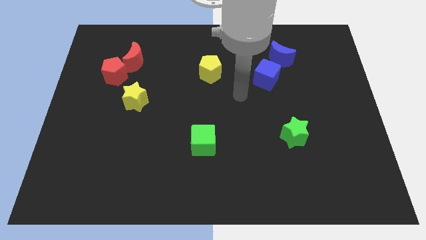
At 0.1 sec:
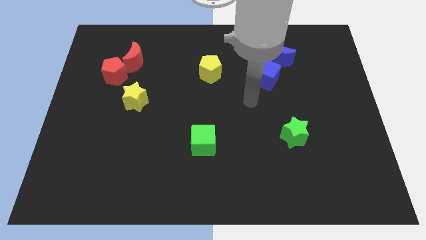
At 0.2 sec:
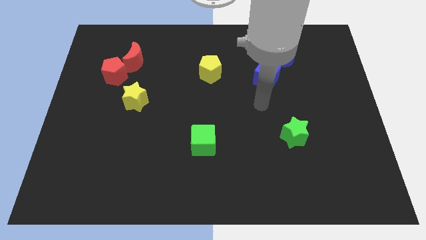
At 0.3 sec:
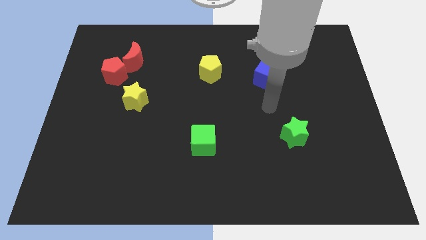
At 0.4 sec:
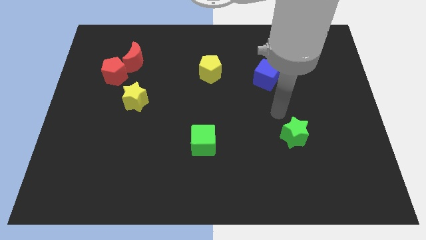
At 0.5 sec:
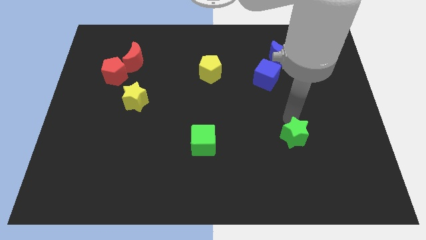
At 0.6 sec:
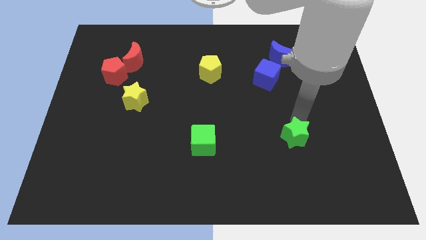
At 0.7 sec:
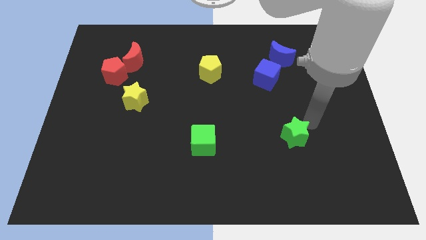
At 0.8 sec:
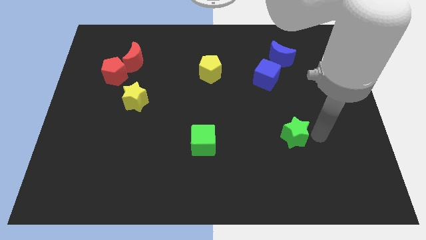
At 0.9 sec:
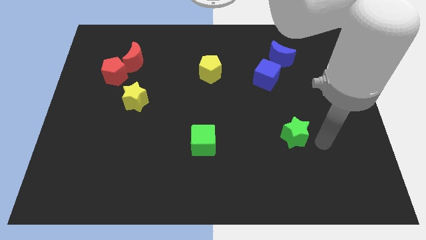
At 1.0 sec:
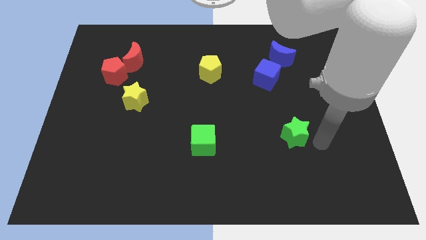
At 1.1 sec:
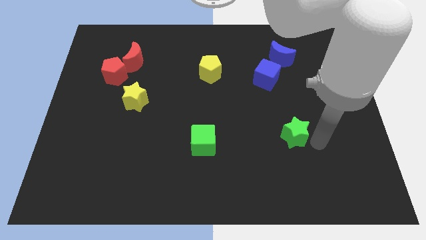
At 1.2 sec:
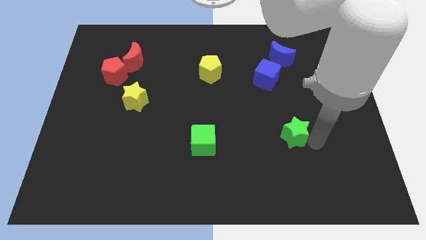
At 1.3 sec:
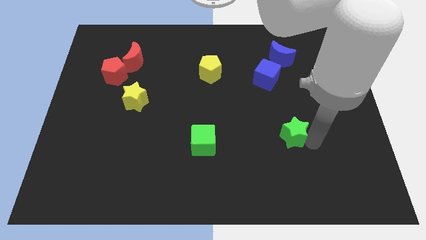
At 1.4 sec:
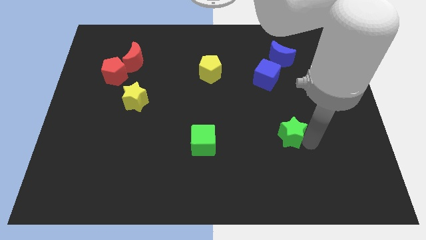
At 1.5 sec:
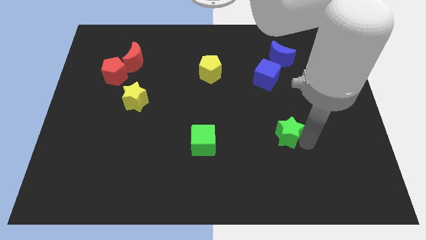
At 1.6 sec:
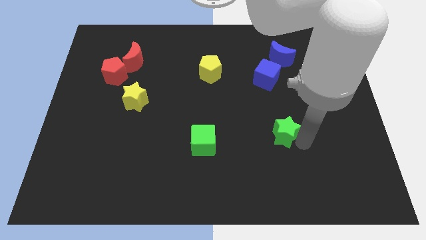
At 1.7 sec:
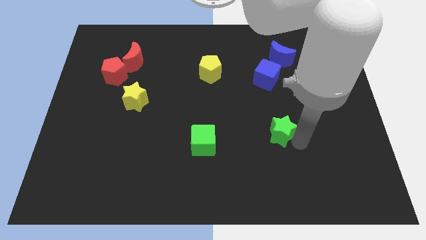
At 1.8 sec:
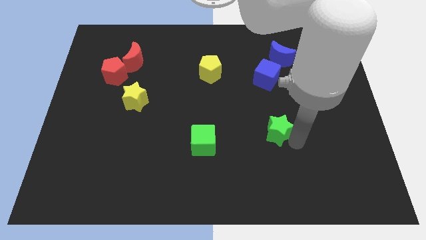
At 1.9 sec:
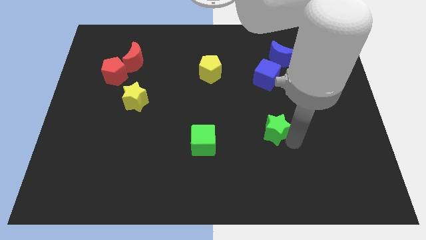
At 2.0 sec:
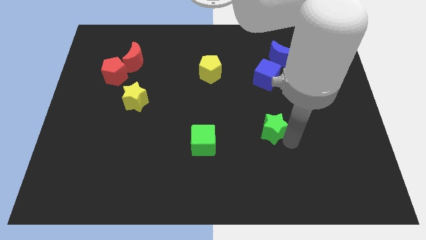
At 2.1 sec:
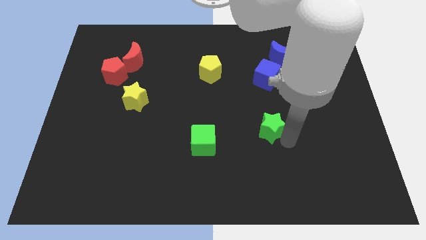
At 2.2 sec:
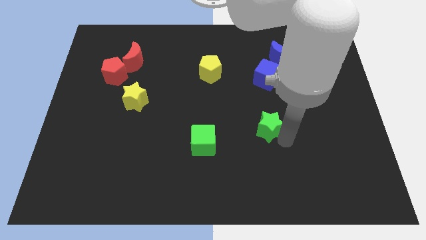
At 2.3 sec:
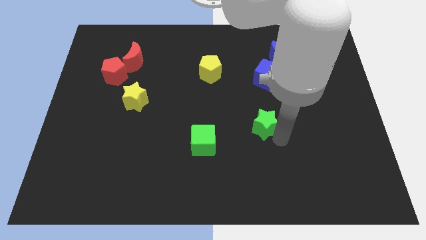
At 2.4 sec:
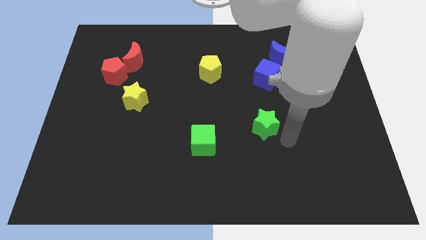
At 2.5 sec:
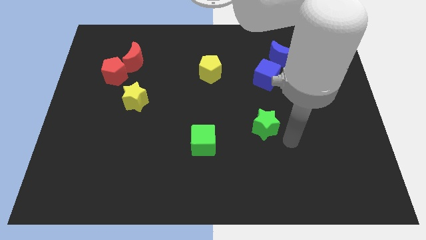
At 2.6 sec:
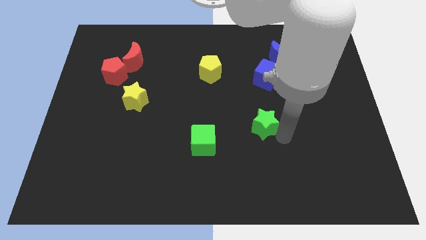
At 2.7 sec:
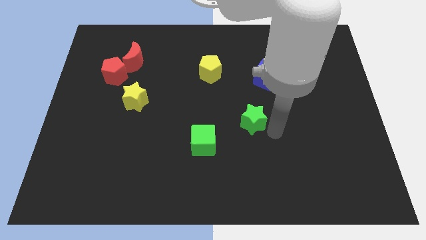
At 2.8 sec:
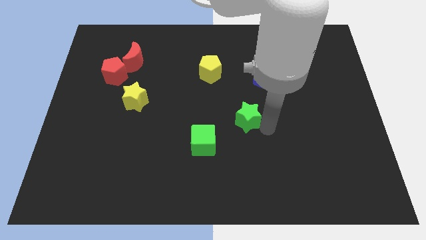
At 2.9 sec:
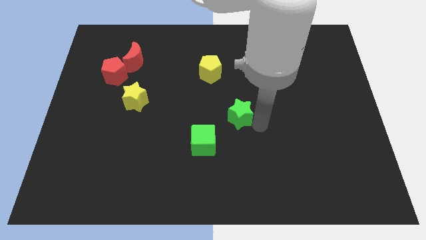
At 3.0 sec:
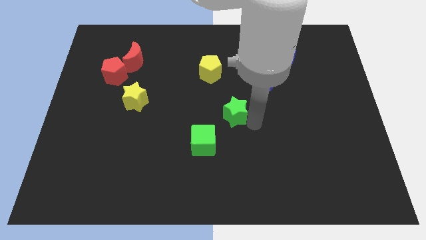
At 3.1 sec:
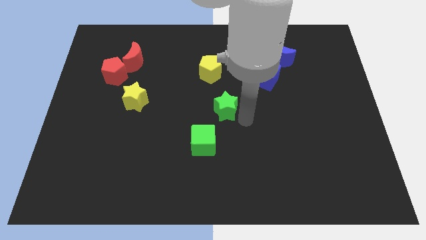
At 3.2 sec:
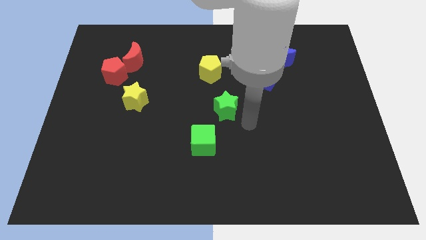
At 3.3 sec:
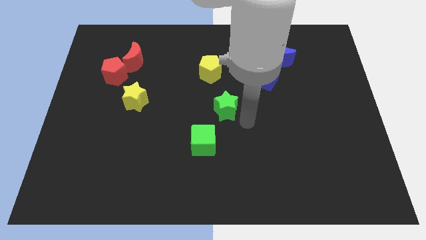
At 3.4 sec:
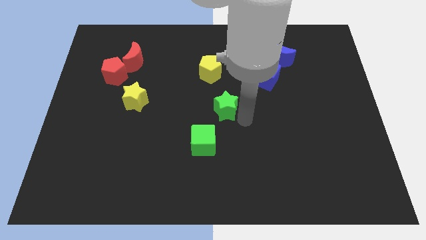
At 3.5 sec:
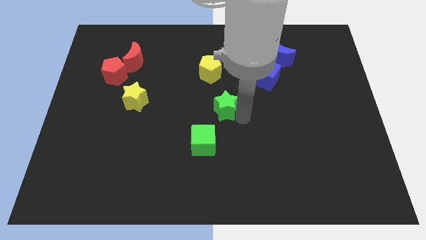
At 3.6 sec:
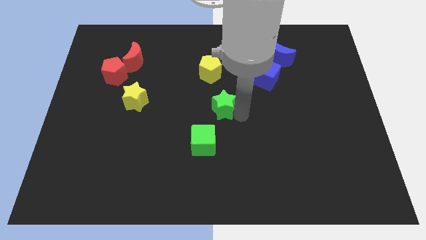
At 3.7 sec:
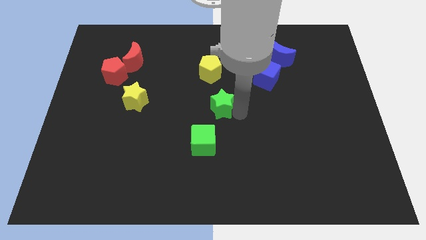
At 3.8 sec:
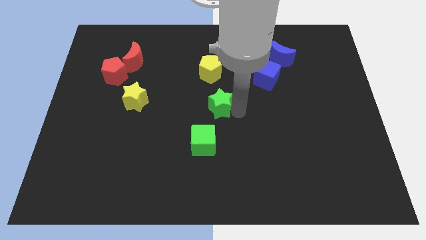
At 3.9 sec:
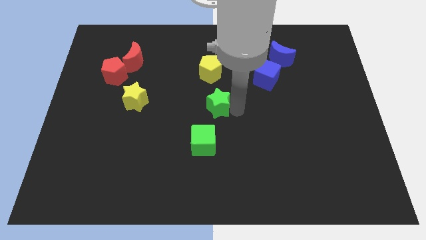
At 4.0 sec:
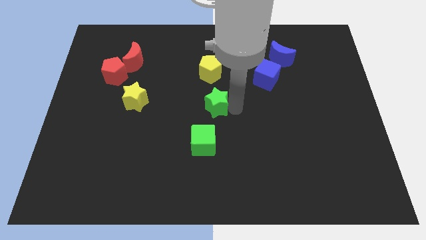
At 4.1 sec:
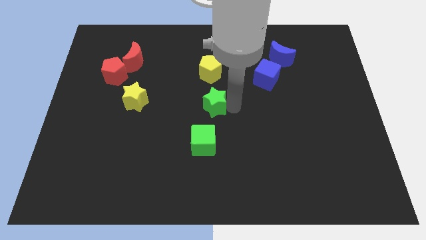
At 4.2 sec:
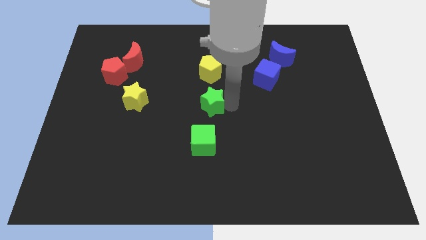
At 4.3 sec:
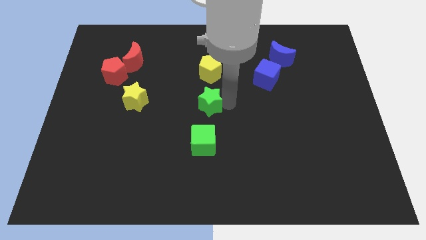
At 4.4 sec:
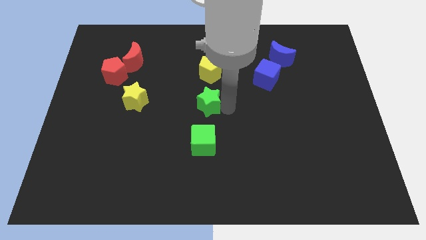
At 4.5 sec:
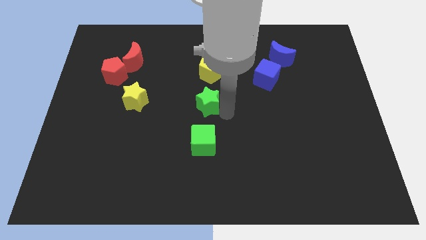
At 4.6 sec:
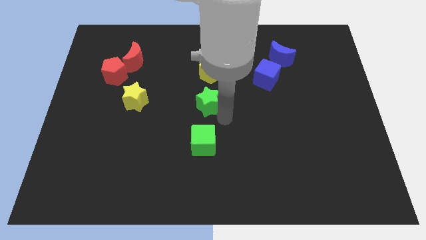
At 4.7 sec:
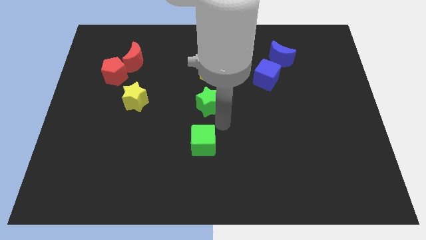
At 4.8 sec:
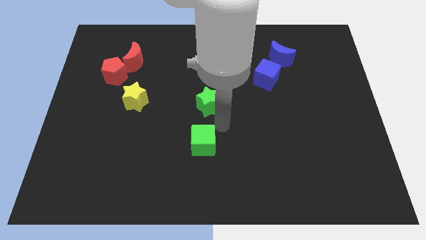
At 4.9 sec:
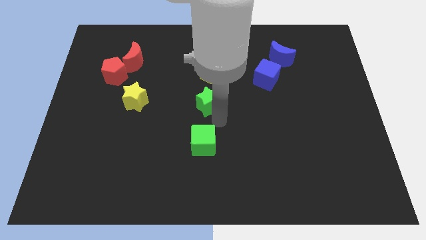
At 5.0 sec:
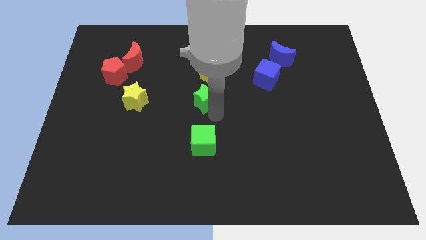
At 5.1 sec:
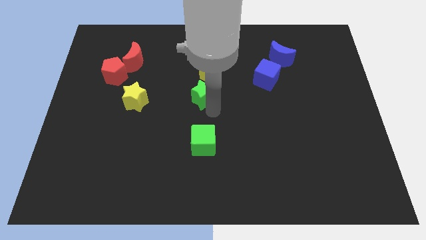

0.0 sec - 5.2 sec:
move the green star upwards and left

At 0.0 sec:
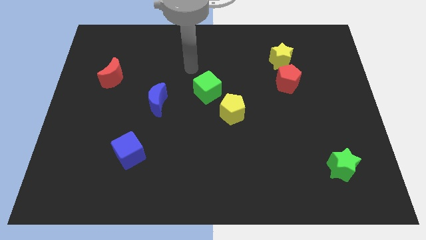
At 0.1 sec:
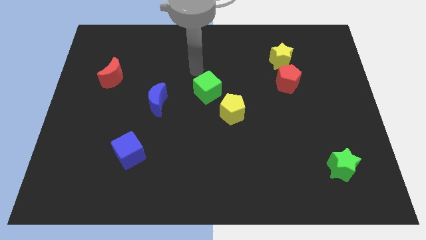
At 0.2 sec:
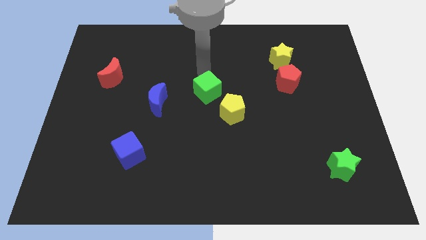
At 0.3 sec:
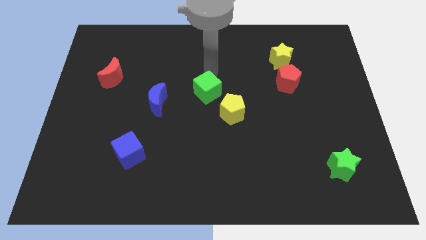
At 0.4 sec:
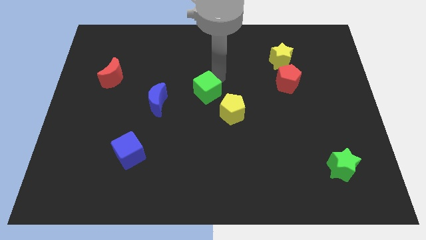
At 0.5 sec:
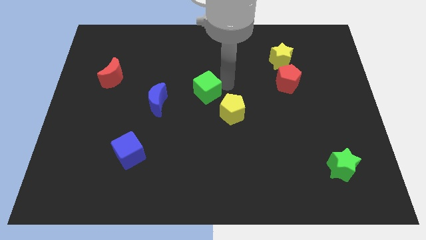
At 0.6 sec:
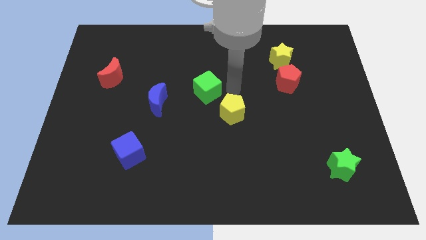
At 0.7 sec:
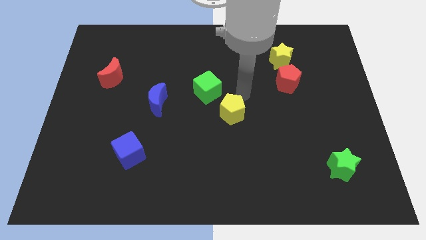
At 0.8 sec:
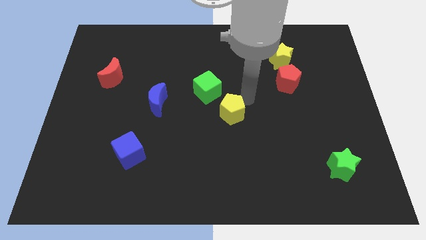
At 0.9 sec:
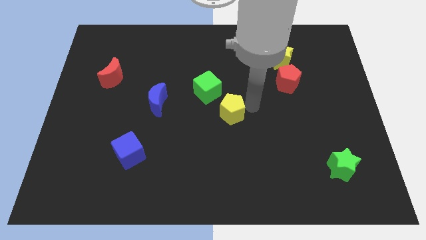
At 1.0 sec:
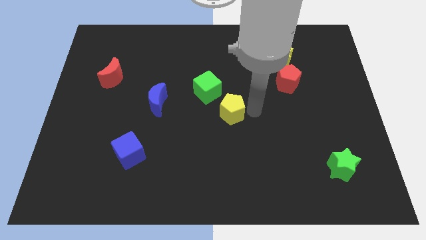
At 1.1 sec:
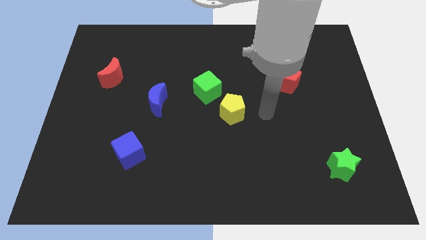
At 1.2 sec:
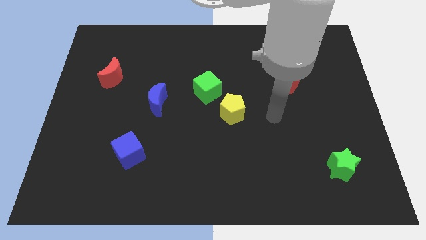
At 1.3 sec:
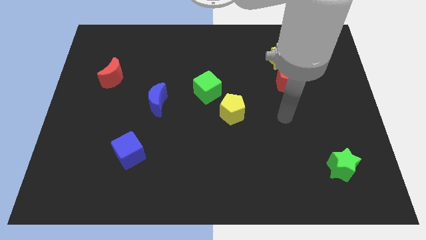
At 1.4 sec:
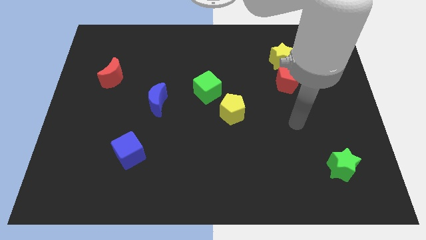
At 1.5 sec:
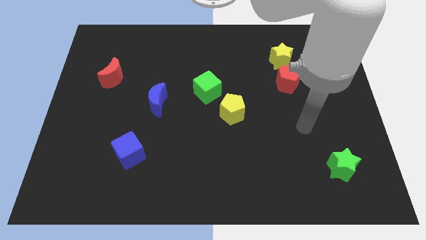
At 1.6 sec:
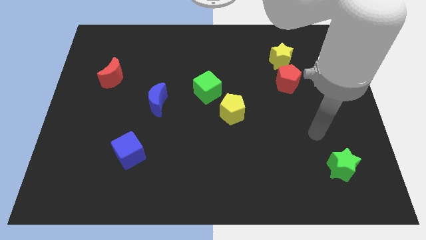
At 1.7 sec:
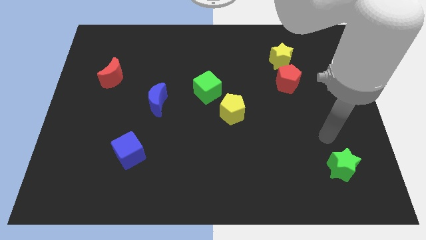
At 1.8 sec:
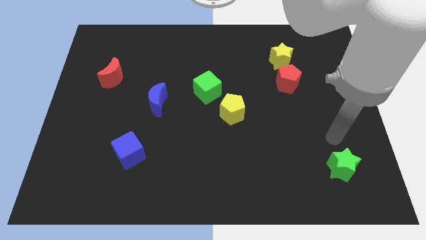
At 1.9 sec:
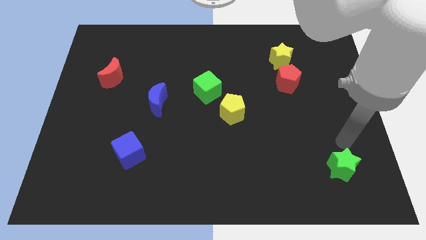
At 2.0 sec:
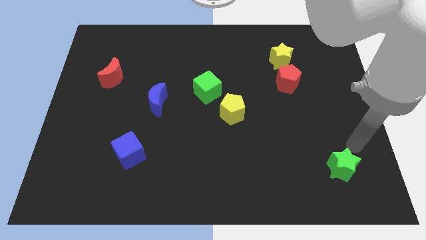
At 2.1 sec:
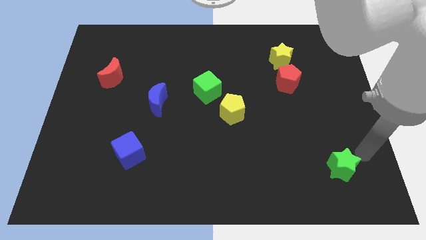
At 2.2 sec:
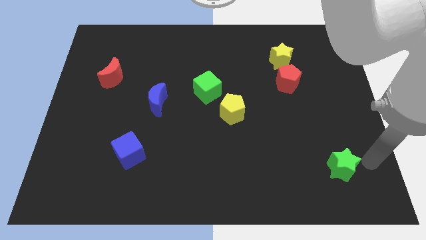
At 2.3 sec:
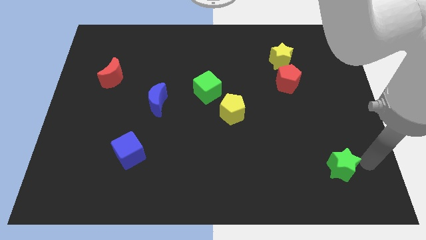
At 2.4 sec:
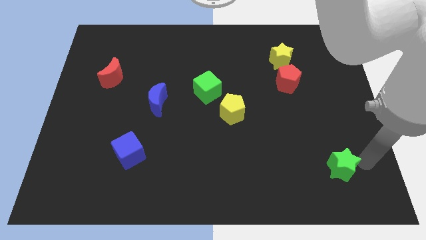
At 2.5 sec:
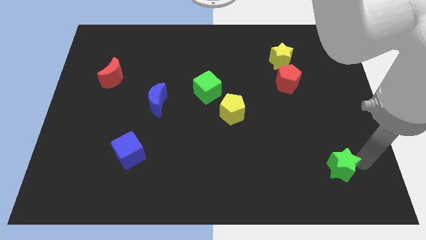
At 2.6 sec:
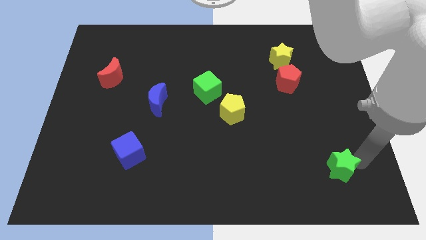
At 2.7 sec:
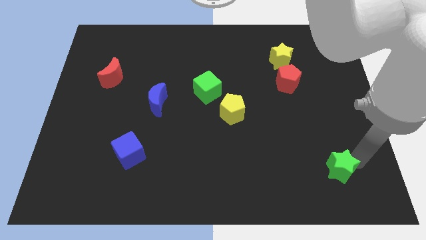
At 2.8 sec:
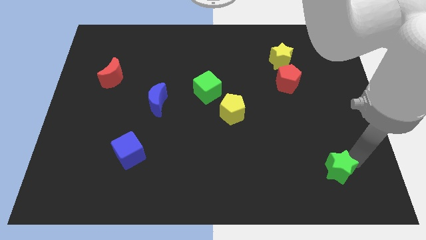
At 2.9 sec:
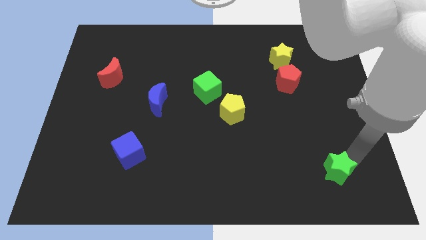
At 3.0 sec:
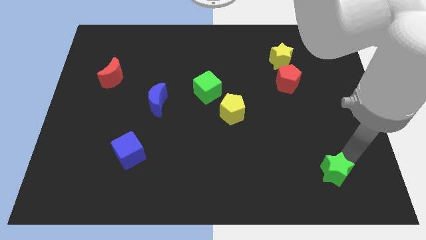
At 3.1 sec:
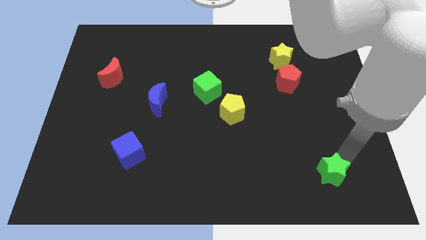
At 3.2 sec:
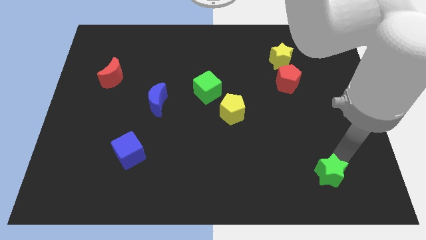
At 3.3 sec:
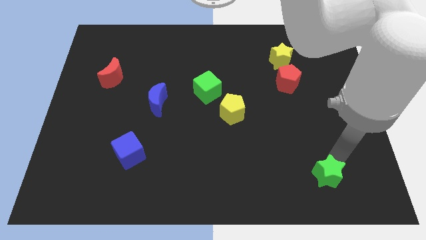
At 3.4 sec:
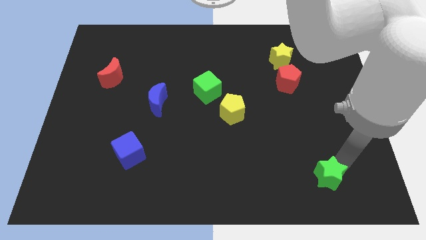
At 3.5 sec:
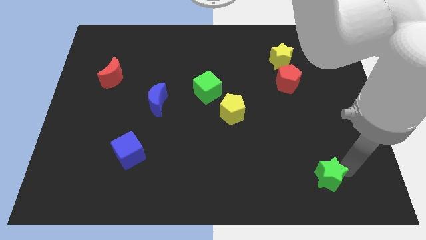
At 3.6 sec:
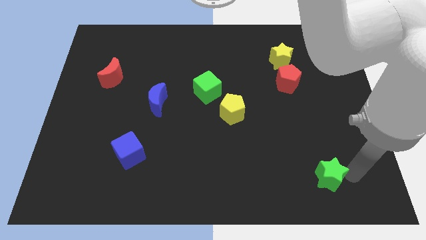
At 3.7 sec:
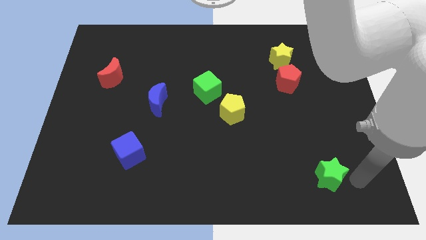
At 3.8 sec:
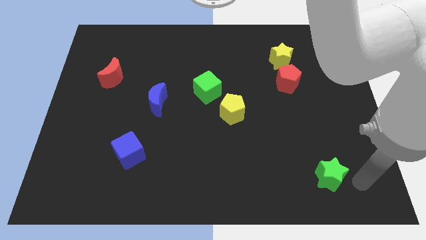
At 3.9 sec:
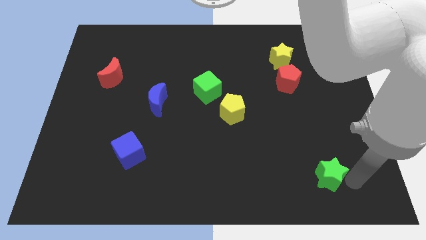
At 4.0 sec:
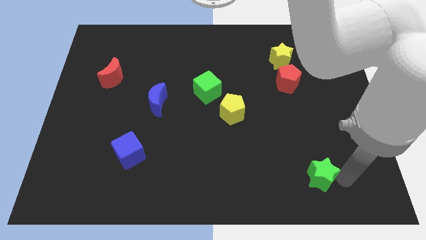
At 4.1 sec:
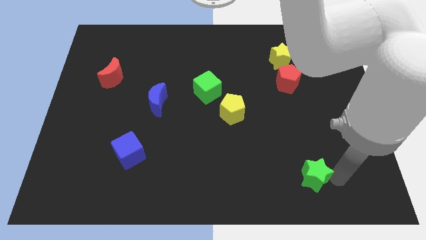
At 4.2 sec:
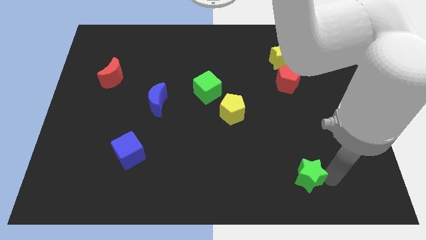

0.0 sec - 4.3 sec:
slide the green star a bit to the left
